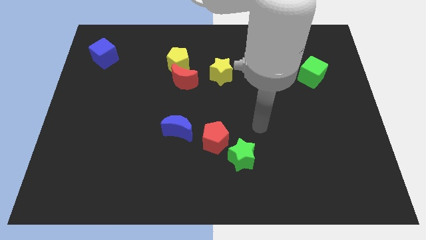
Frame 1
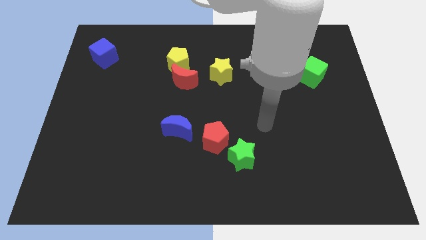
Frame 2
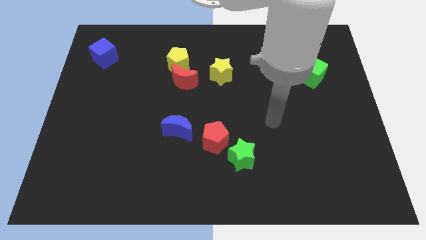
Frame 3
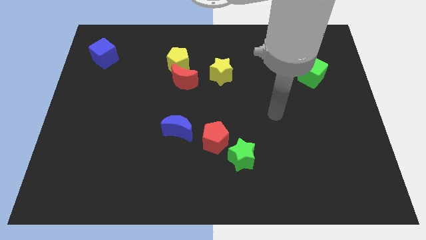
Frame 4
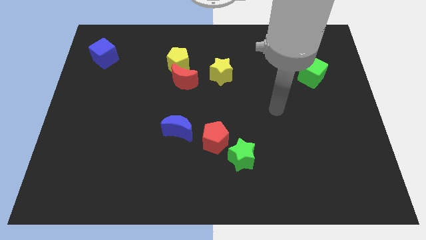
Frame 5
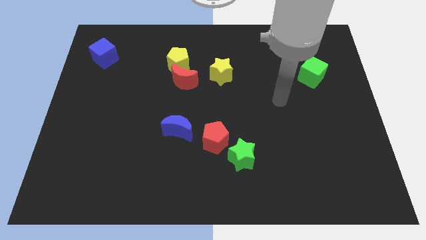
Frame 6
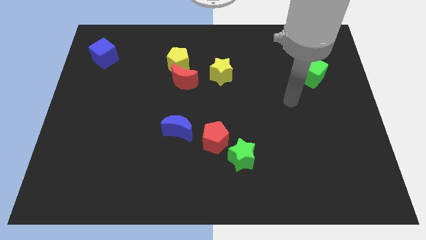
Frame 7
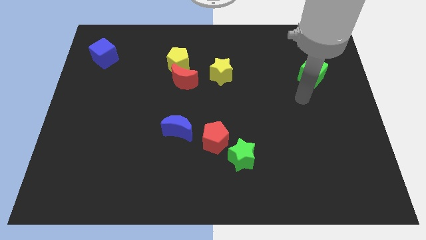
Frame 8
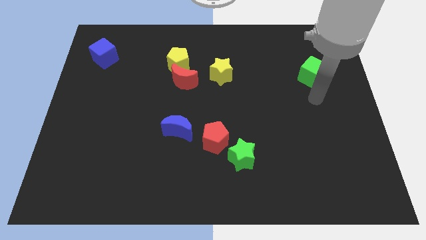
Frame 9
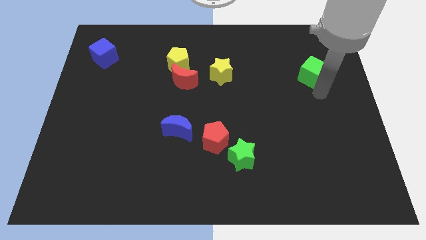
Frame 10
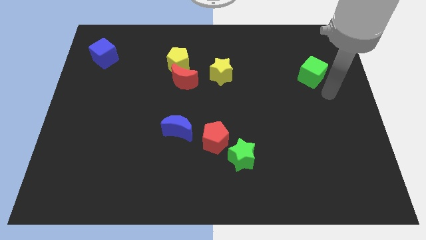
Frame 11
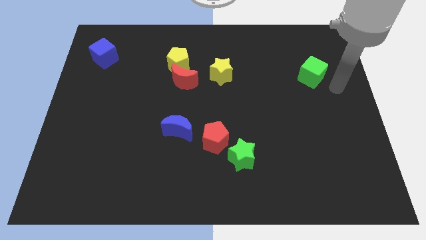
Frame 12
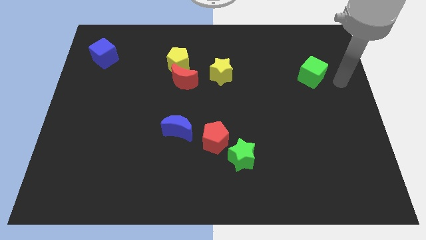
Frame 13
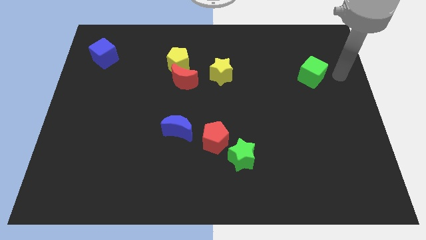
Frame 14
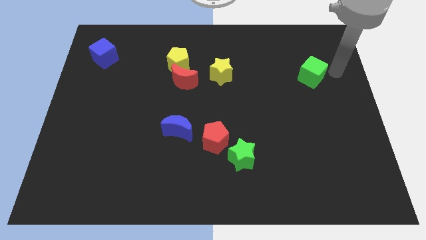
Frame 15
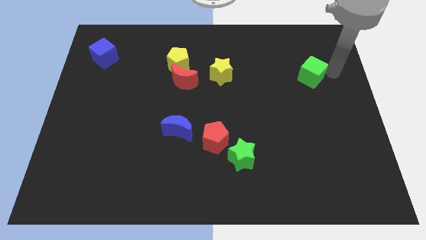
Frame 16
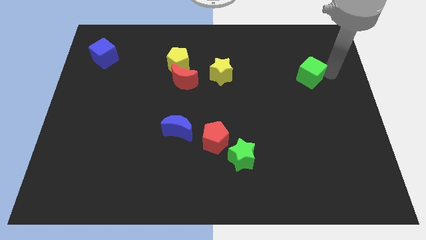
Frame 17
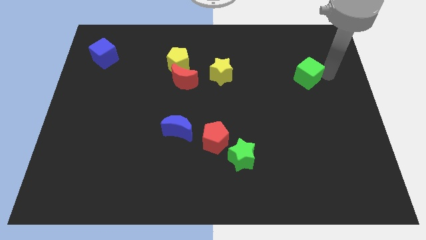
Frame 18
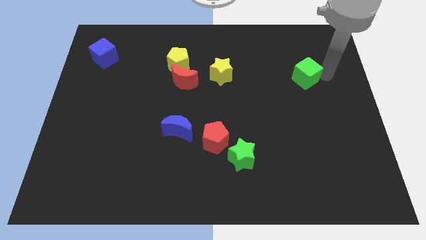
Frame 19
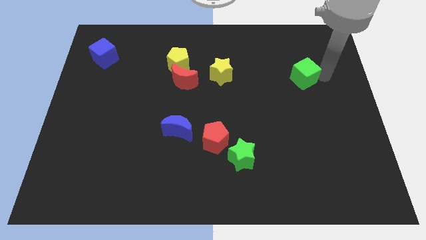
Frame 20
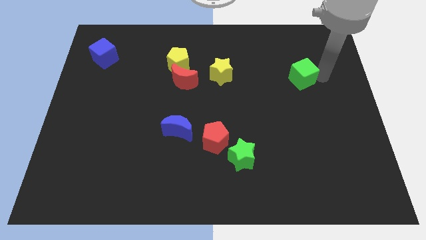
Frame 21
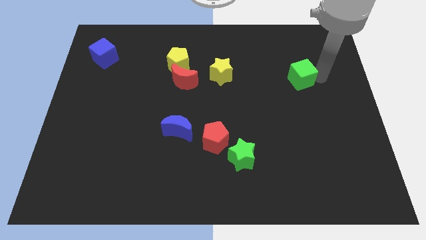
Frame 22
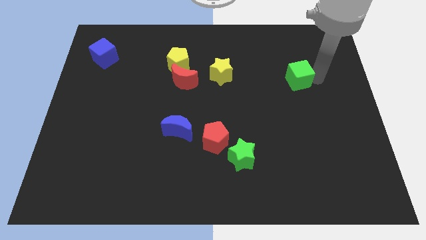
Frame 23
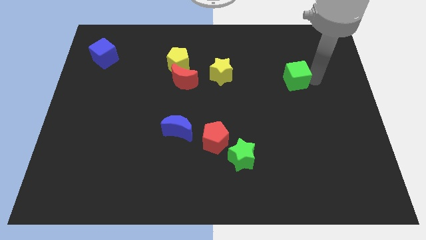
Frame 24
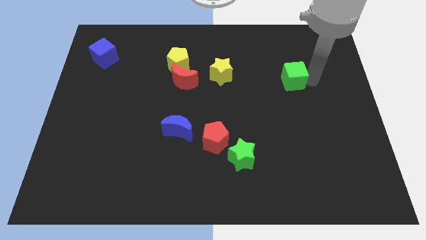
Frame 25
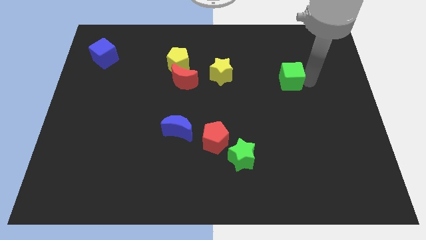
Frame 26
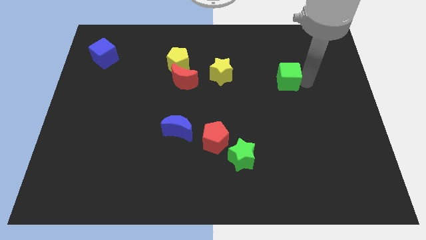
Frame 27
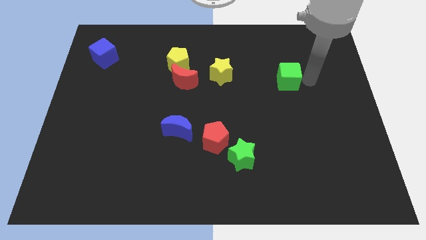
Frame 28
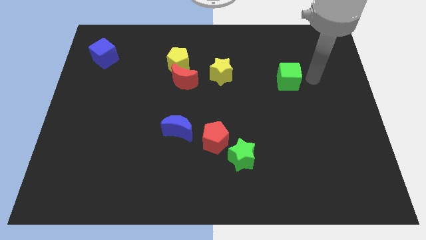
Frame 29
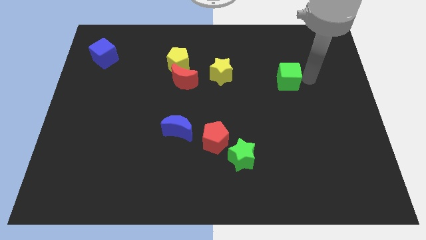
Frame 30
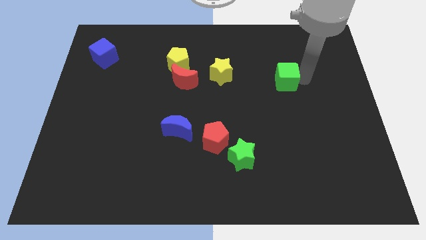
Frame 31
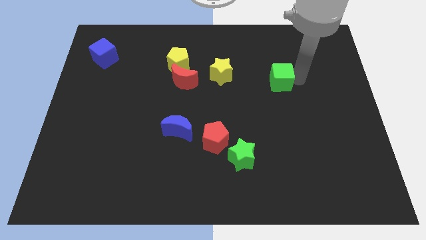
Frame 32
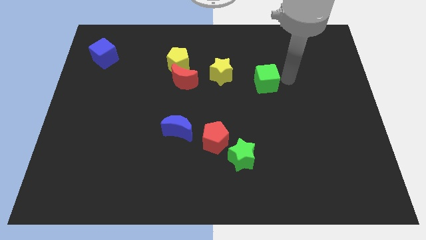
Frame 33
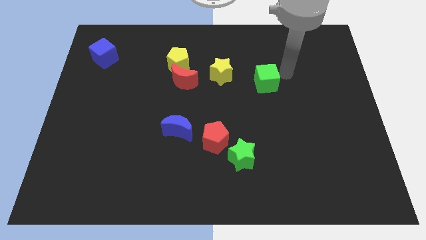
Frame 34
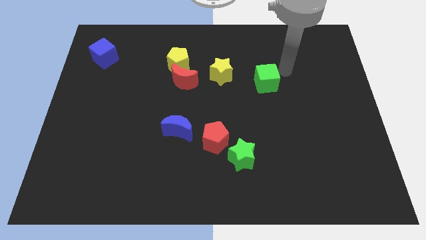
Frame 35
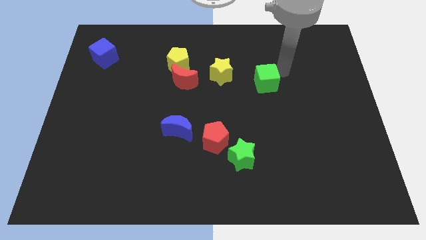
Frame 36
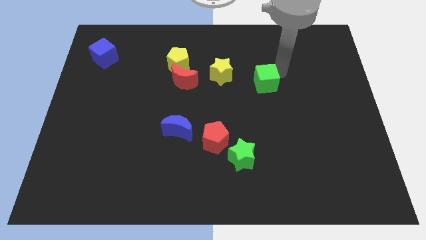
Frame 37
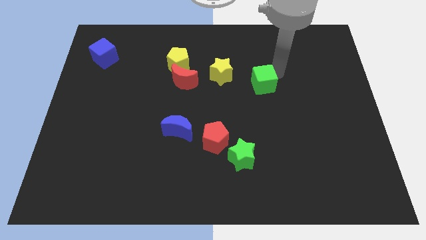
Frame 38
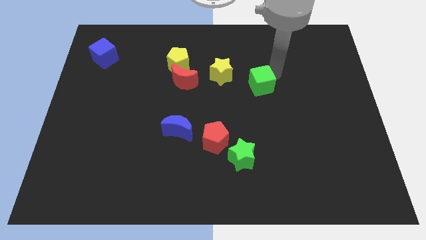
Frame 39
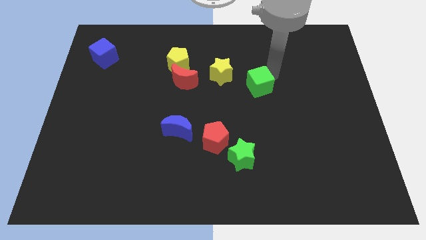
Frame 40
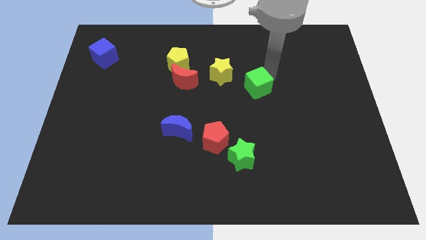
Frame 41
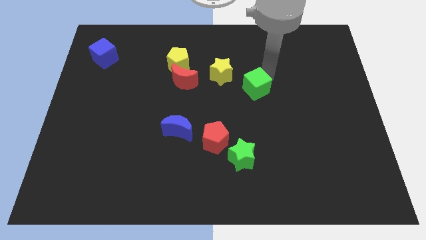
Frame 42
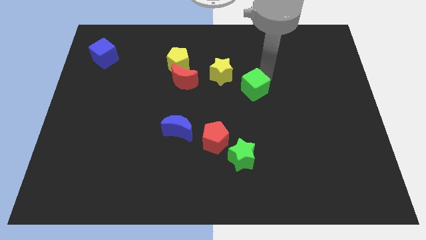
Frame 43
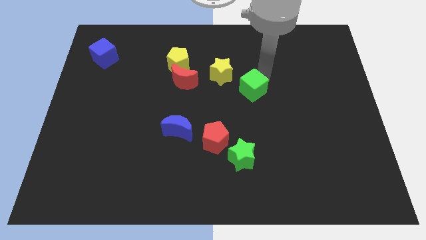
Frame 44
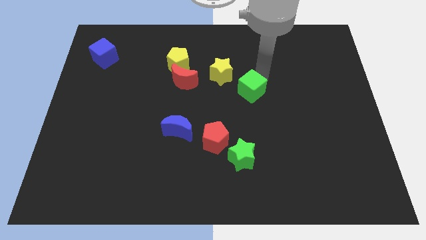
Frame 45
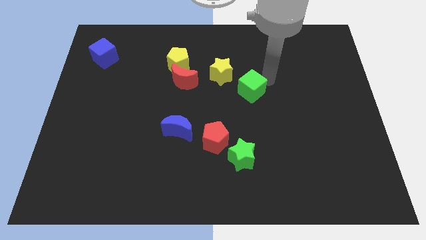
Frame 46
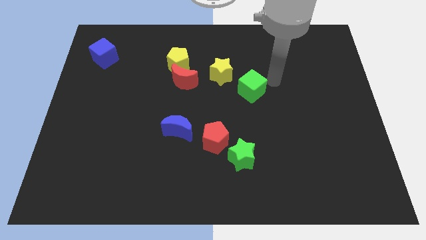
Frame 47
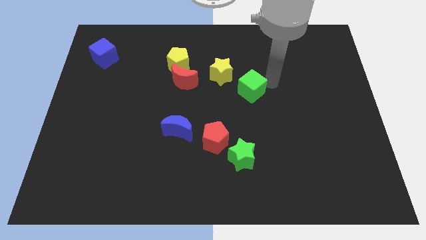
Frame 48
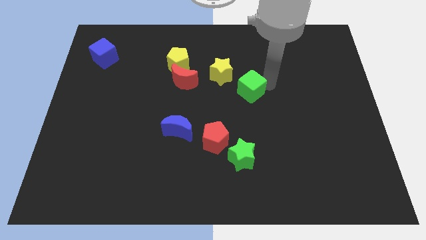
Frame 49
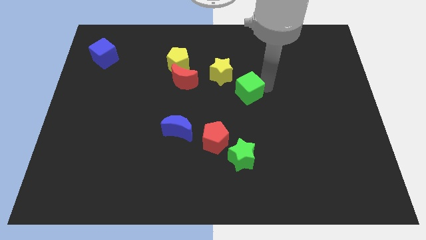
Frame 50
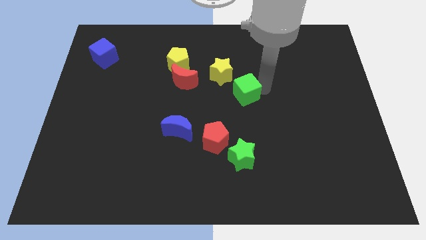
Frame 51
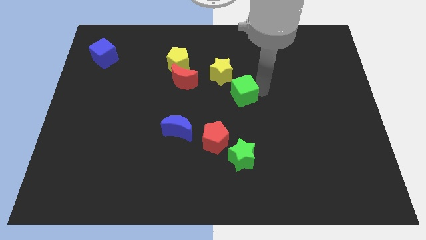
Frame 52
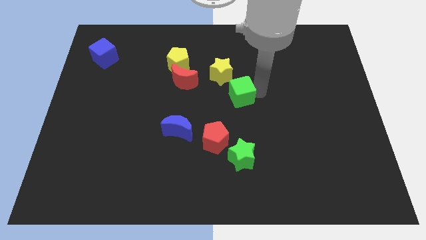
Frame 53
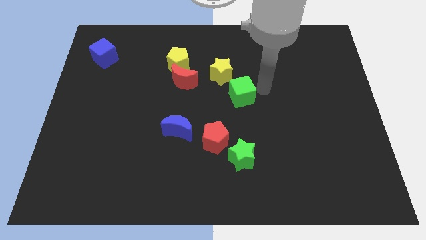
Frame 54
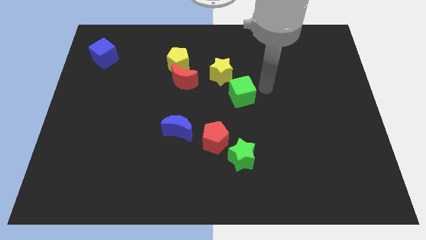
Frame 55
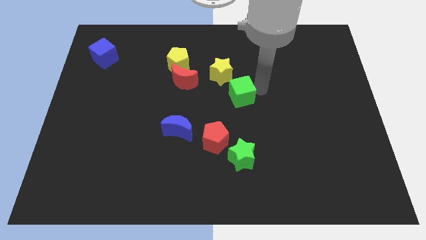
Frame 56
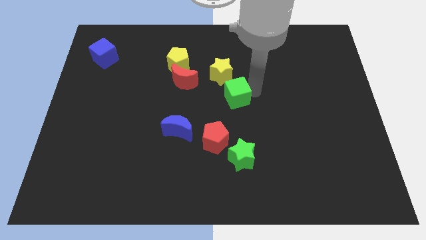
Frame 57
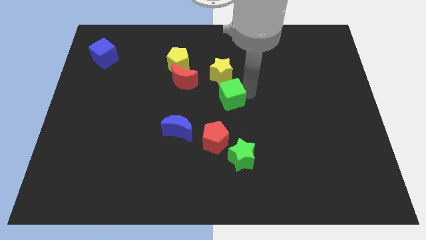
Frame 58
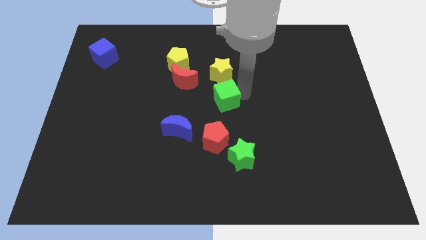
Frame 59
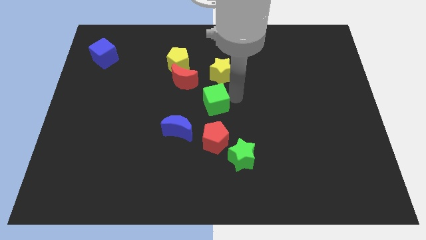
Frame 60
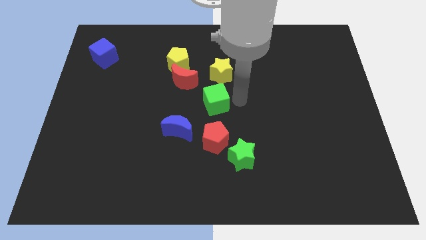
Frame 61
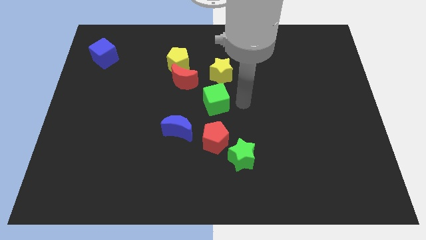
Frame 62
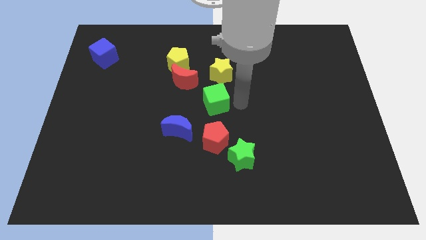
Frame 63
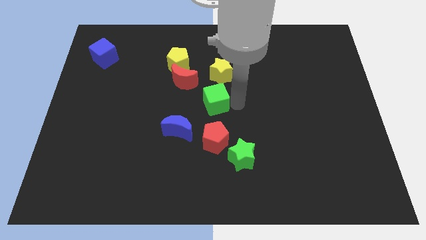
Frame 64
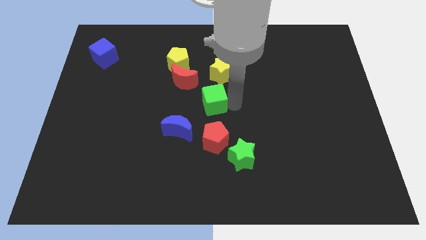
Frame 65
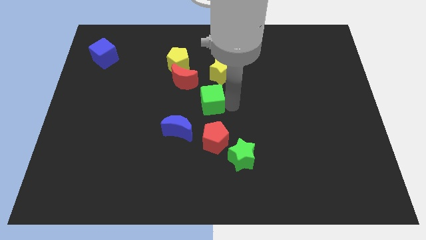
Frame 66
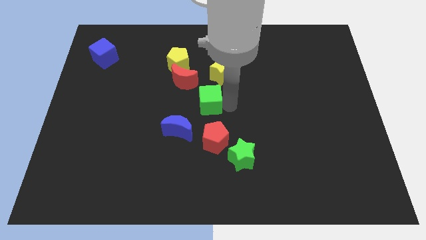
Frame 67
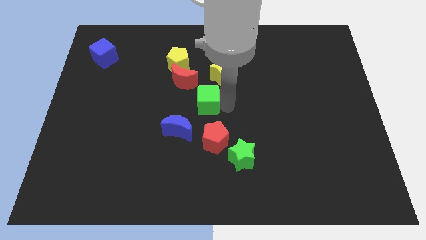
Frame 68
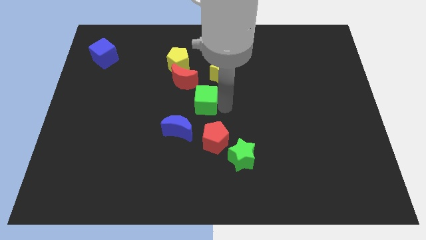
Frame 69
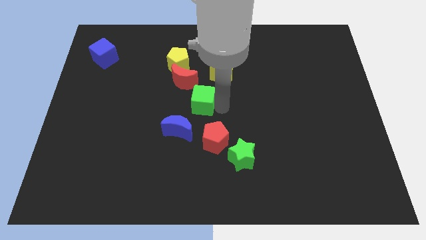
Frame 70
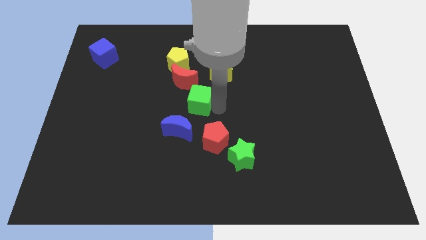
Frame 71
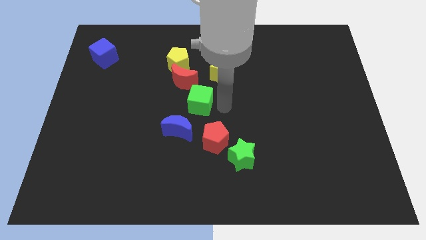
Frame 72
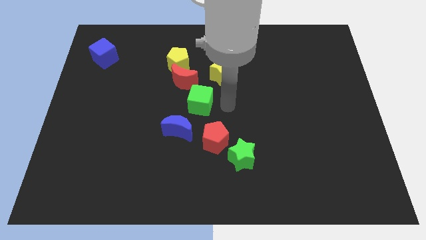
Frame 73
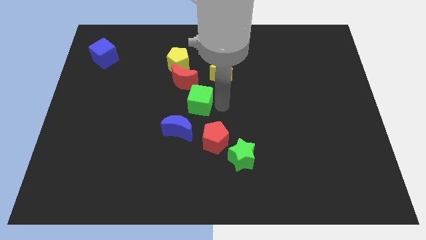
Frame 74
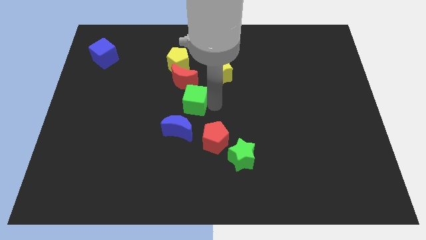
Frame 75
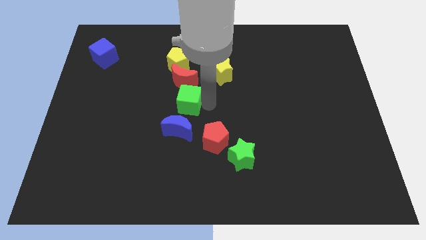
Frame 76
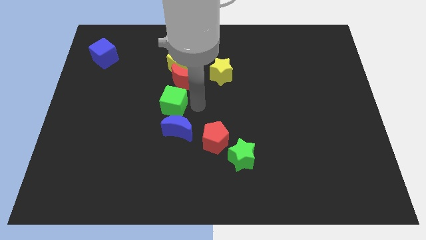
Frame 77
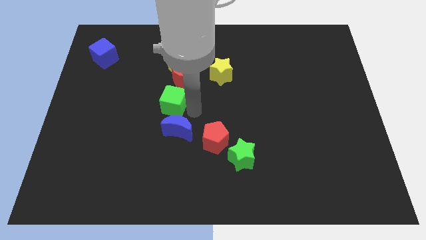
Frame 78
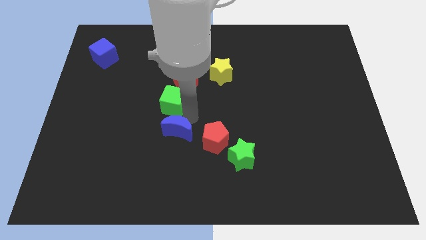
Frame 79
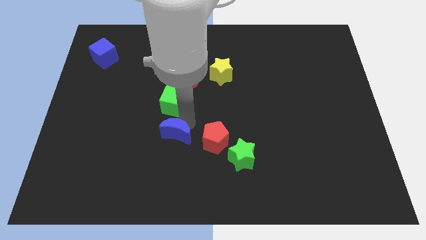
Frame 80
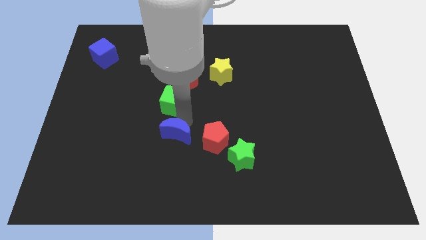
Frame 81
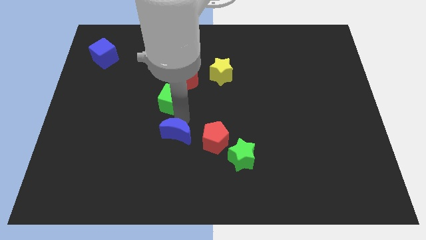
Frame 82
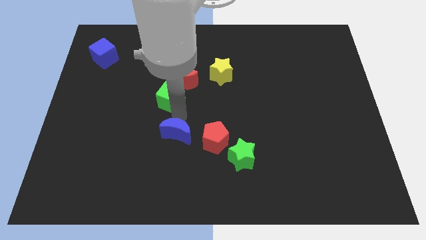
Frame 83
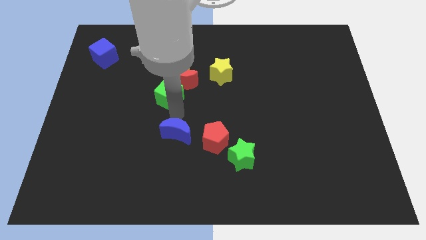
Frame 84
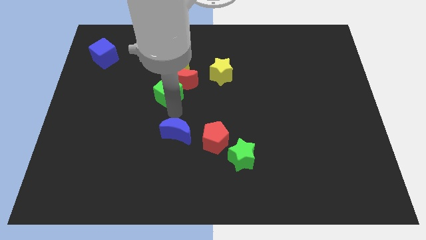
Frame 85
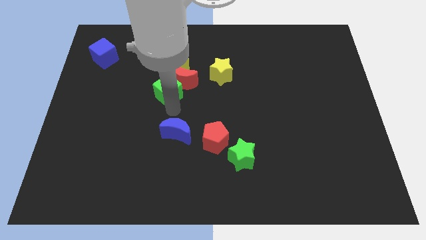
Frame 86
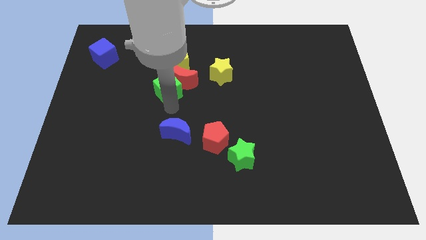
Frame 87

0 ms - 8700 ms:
move the green cube to the bottom left of the yellow pentagon
